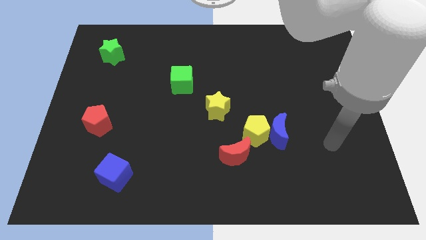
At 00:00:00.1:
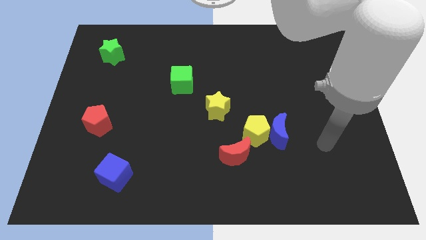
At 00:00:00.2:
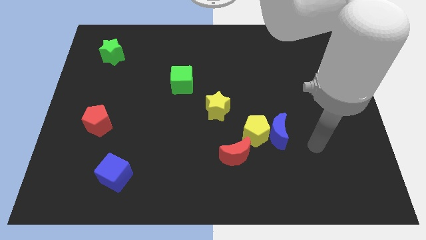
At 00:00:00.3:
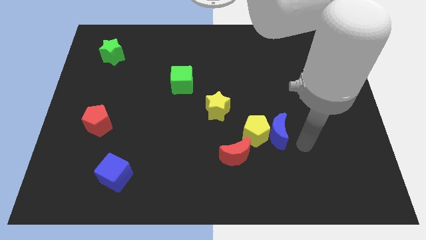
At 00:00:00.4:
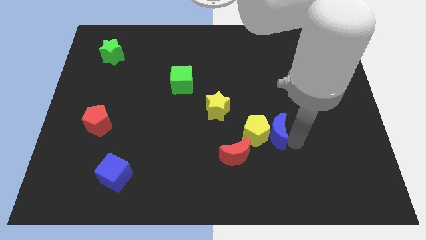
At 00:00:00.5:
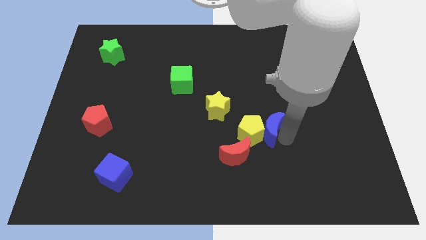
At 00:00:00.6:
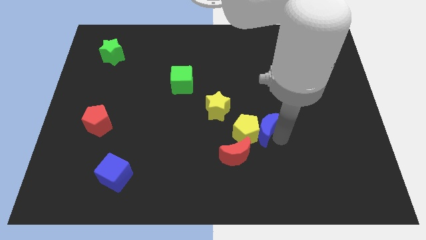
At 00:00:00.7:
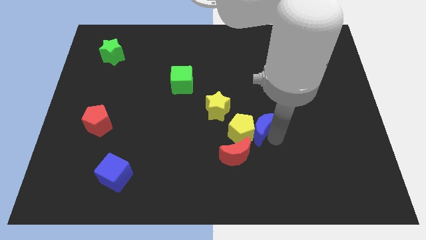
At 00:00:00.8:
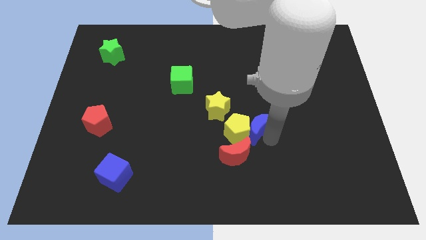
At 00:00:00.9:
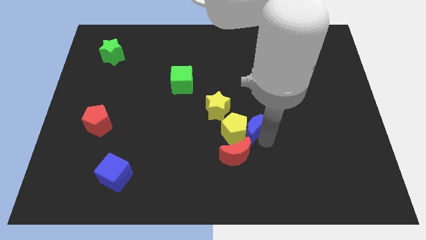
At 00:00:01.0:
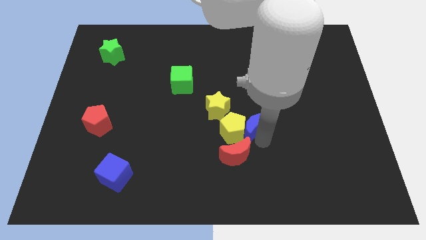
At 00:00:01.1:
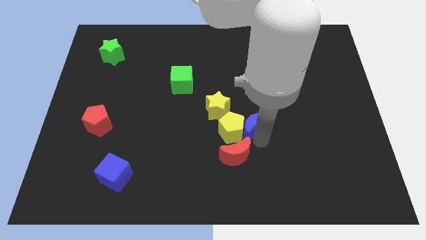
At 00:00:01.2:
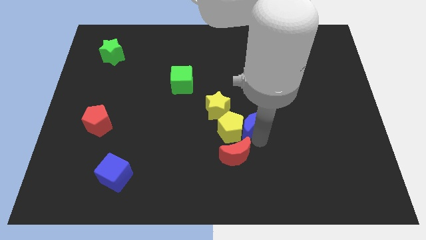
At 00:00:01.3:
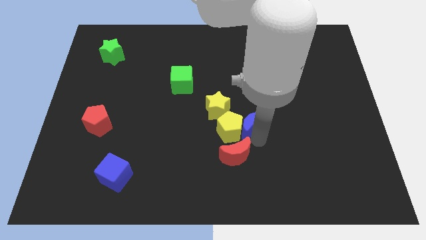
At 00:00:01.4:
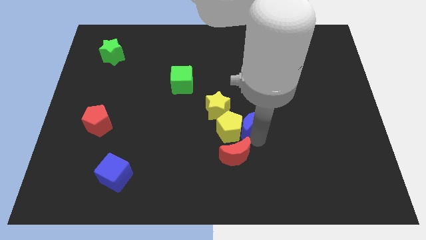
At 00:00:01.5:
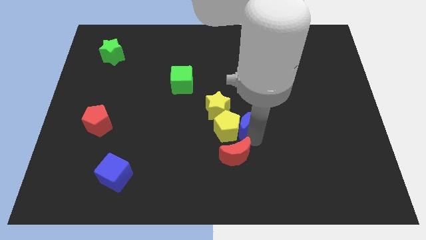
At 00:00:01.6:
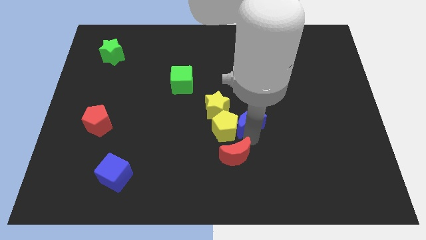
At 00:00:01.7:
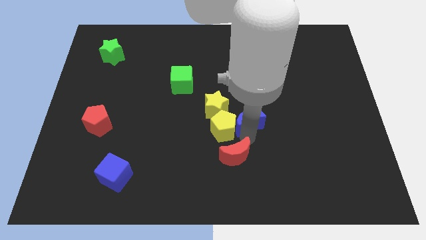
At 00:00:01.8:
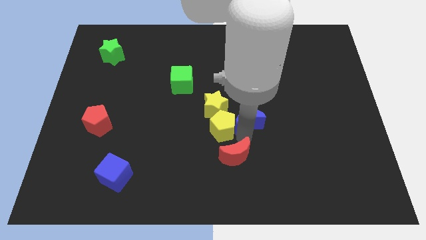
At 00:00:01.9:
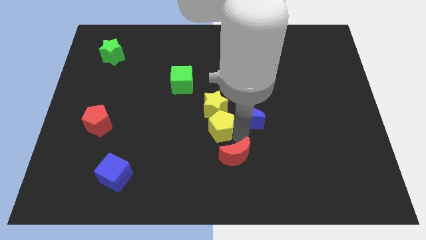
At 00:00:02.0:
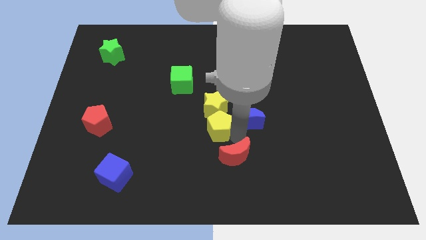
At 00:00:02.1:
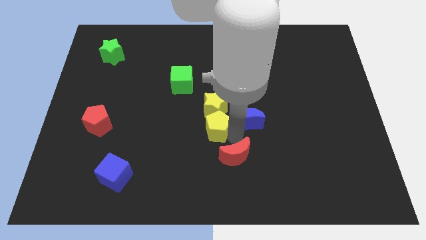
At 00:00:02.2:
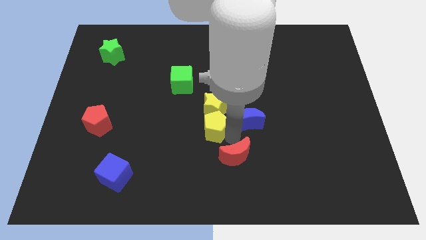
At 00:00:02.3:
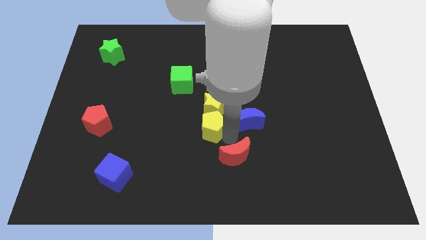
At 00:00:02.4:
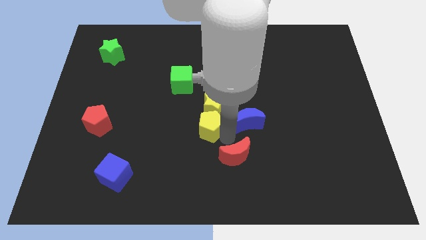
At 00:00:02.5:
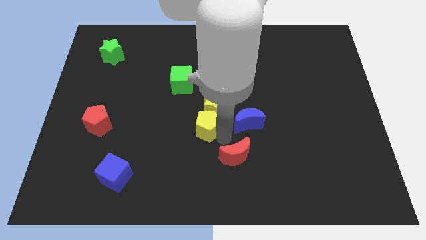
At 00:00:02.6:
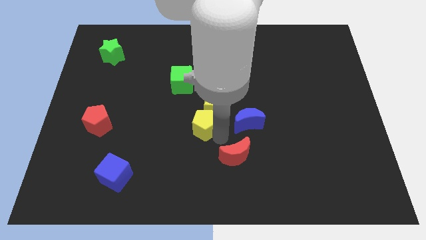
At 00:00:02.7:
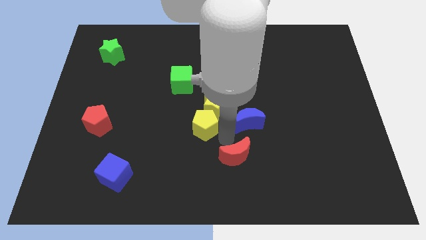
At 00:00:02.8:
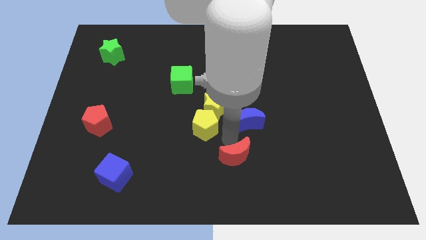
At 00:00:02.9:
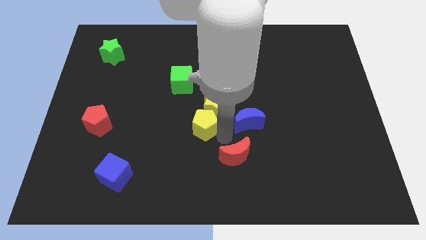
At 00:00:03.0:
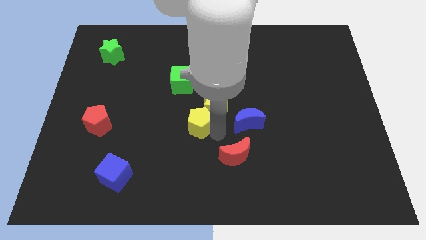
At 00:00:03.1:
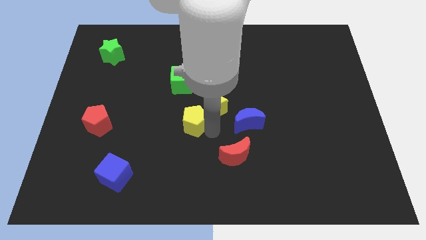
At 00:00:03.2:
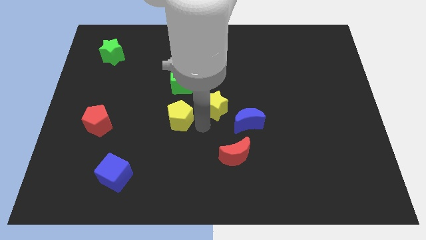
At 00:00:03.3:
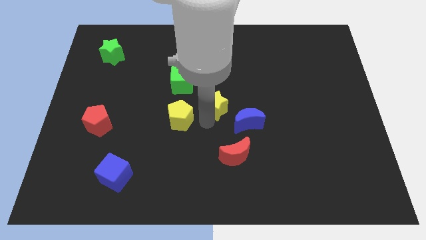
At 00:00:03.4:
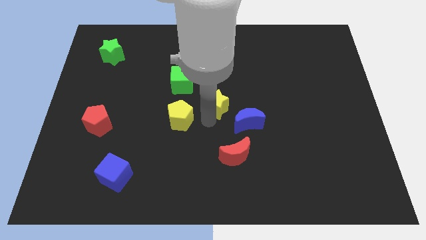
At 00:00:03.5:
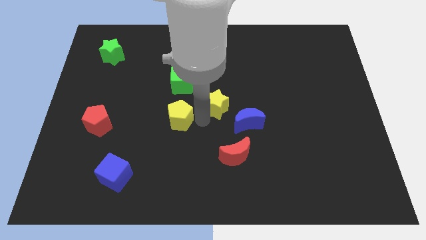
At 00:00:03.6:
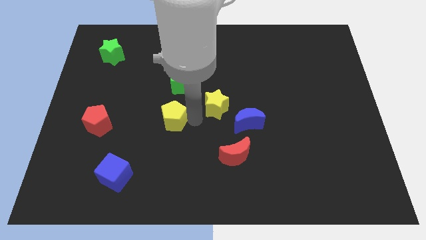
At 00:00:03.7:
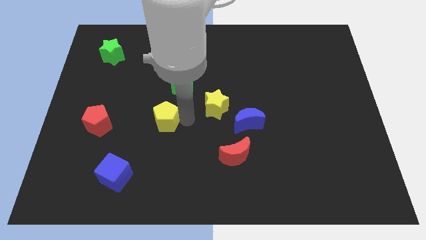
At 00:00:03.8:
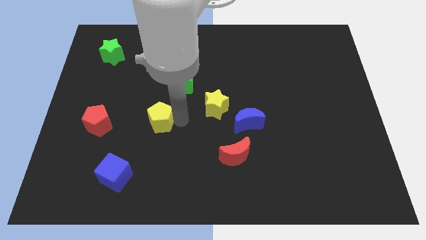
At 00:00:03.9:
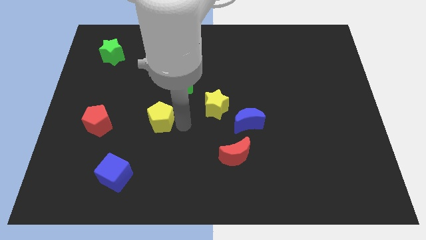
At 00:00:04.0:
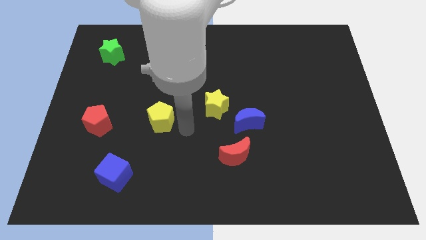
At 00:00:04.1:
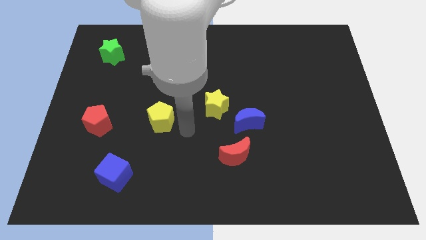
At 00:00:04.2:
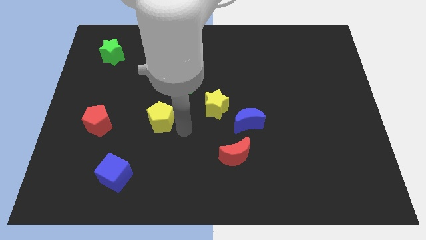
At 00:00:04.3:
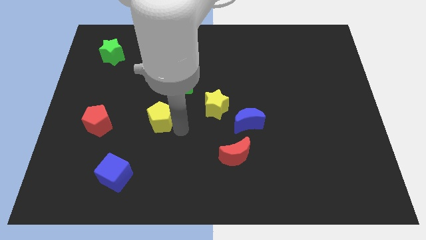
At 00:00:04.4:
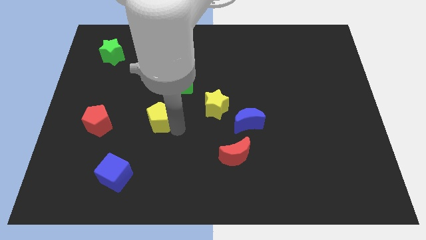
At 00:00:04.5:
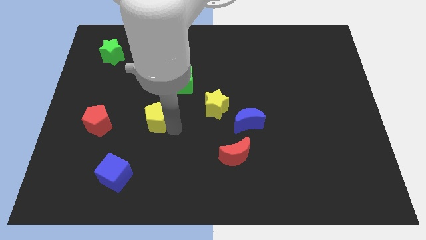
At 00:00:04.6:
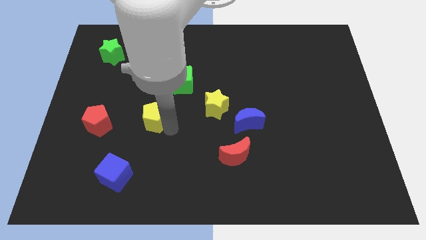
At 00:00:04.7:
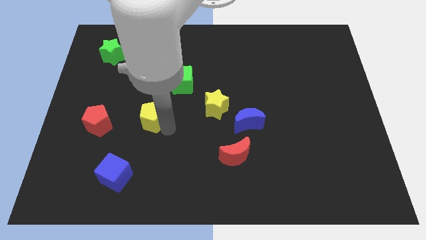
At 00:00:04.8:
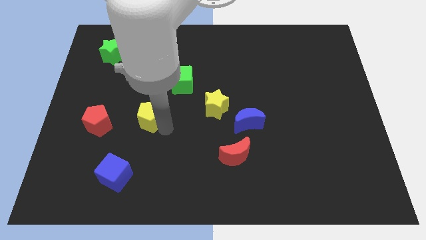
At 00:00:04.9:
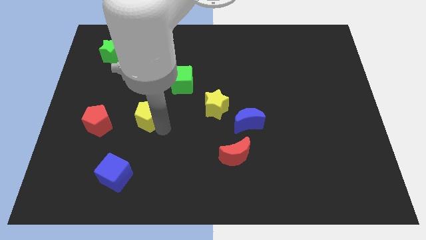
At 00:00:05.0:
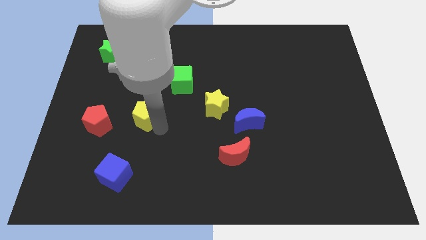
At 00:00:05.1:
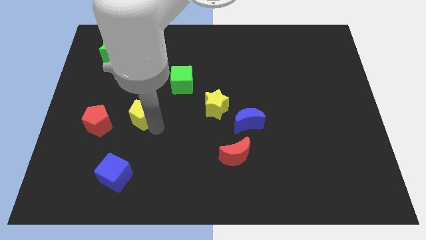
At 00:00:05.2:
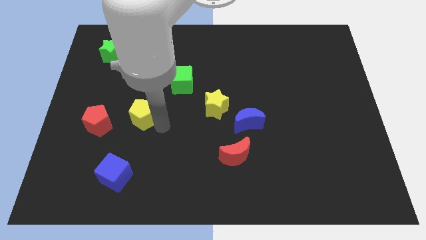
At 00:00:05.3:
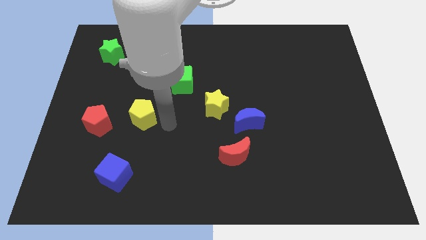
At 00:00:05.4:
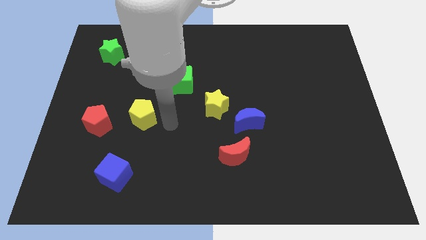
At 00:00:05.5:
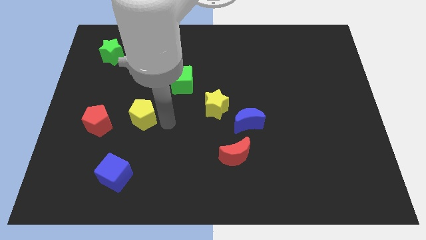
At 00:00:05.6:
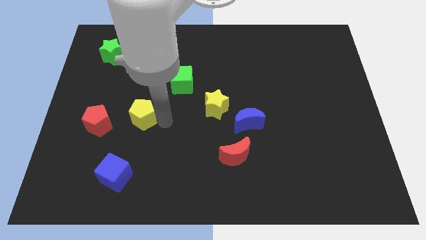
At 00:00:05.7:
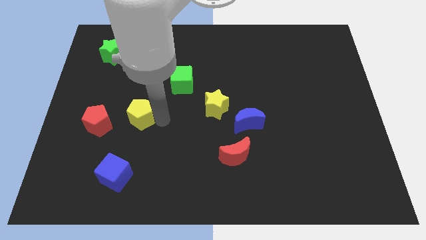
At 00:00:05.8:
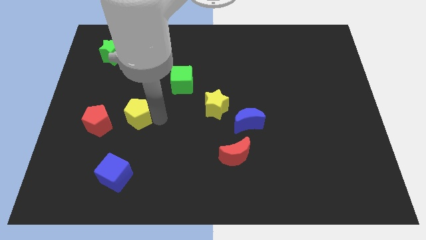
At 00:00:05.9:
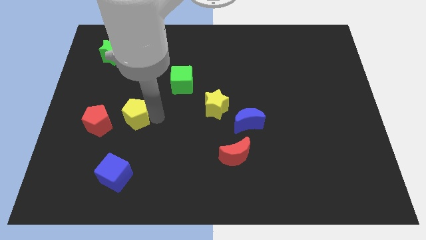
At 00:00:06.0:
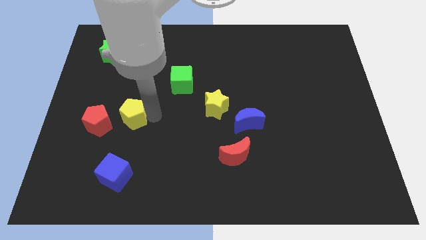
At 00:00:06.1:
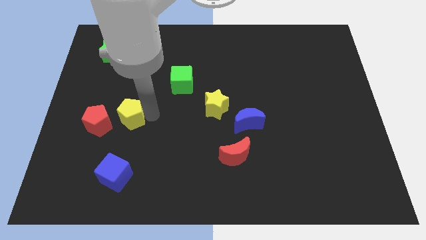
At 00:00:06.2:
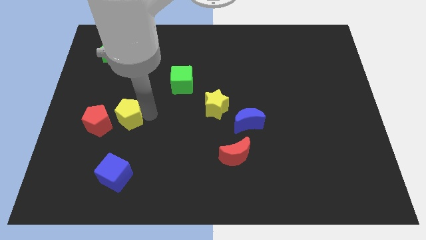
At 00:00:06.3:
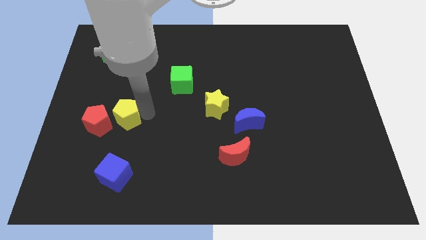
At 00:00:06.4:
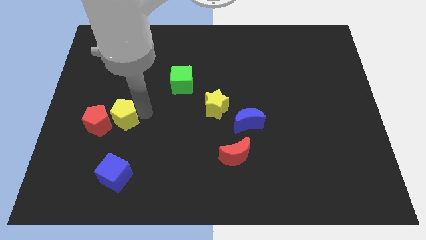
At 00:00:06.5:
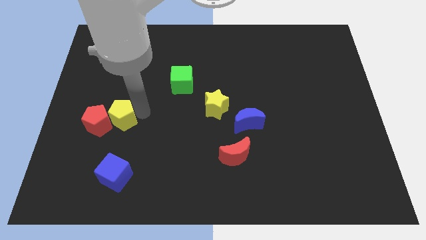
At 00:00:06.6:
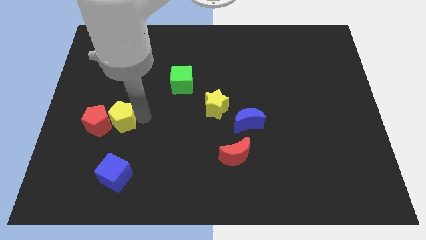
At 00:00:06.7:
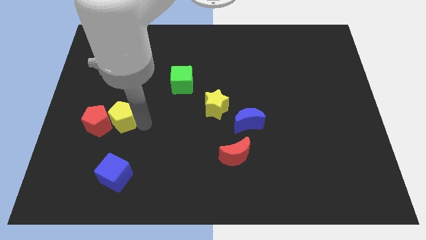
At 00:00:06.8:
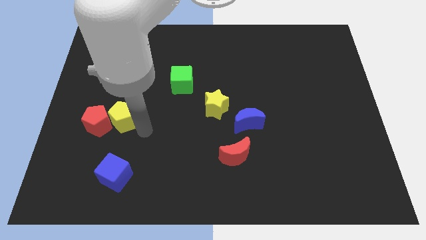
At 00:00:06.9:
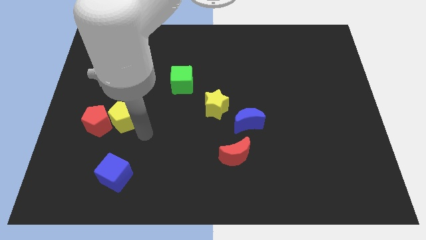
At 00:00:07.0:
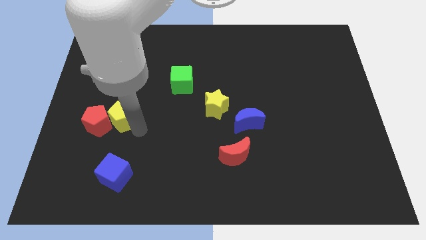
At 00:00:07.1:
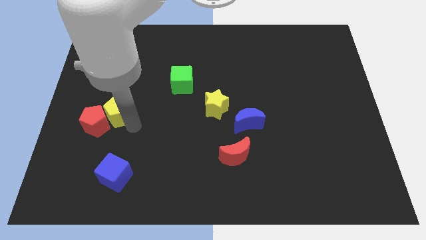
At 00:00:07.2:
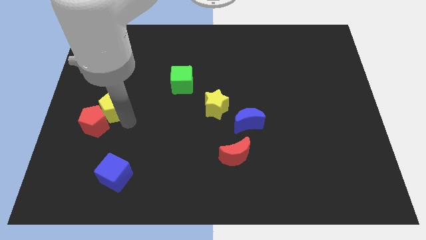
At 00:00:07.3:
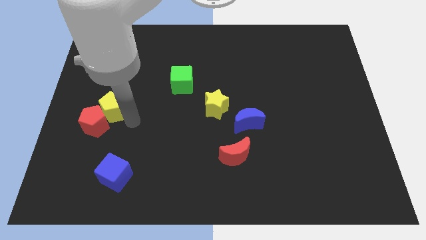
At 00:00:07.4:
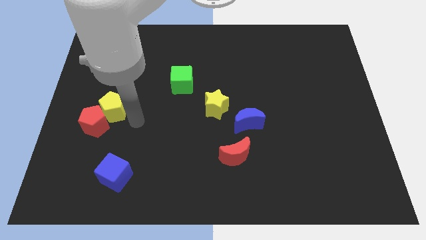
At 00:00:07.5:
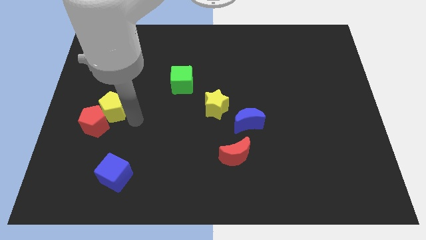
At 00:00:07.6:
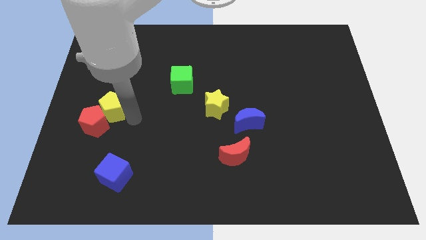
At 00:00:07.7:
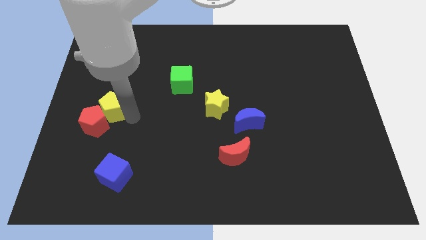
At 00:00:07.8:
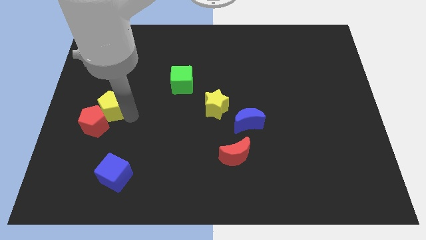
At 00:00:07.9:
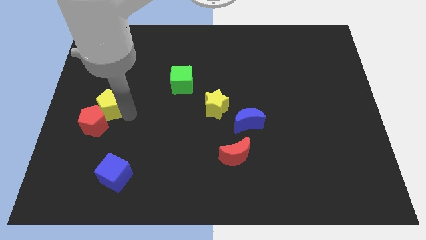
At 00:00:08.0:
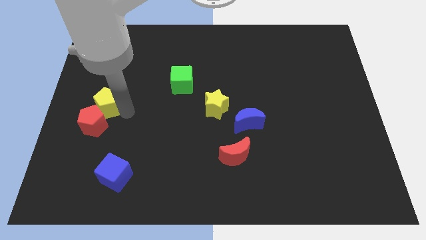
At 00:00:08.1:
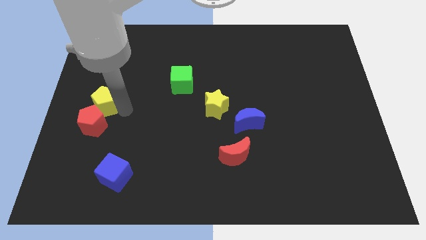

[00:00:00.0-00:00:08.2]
move the yellow pentagon to the left side of the board
